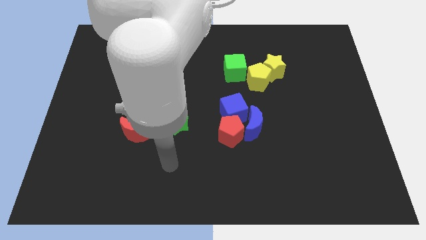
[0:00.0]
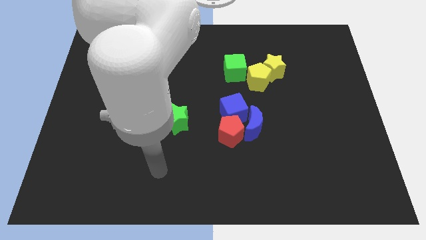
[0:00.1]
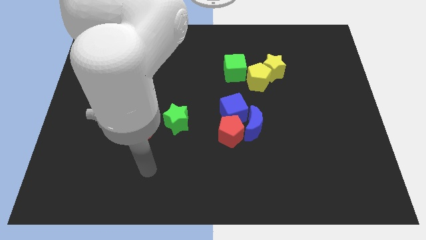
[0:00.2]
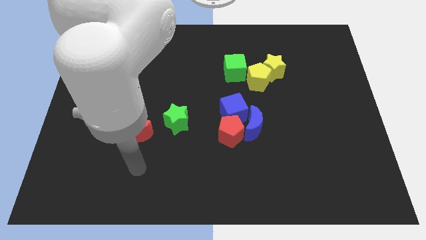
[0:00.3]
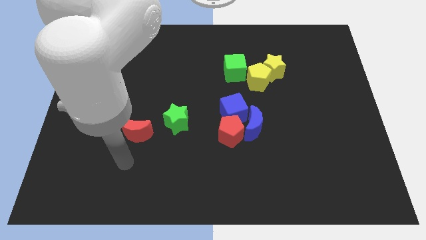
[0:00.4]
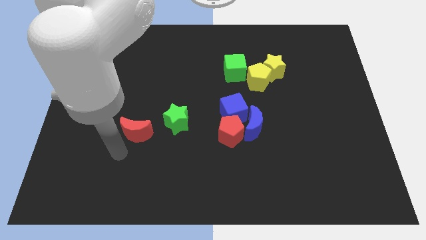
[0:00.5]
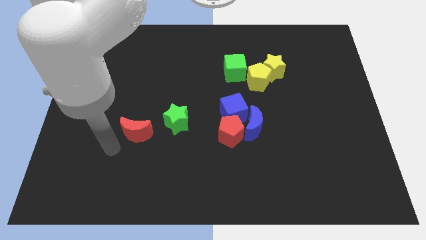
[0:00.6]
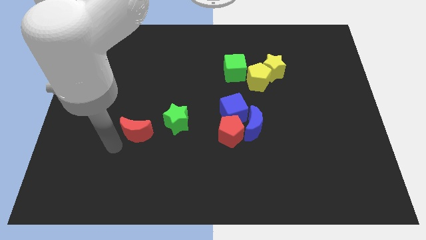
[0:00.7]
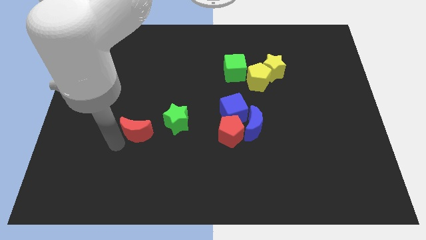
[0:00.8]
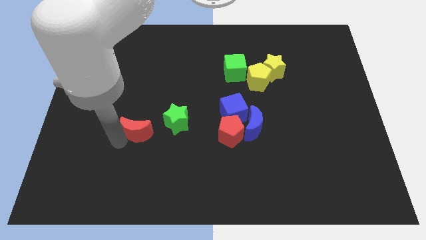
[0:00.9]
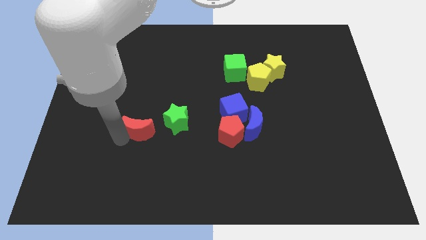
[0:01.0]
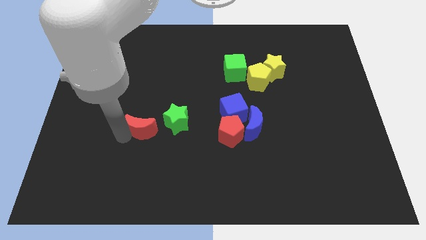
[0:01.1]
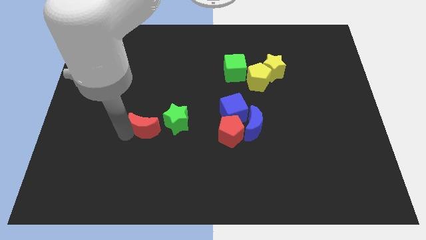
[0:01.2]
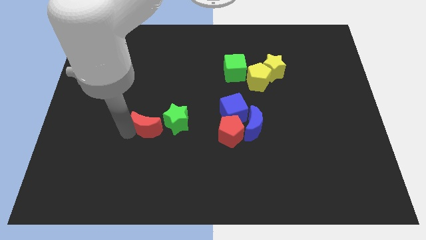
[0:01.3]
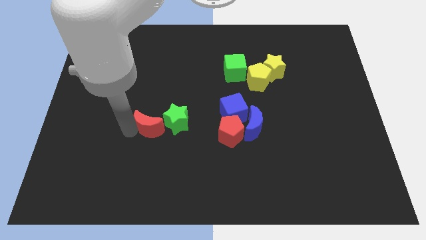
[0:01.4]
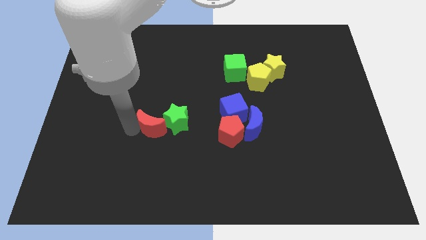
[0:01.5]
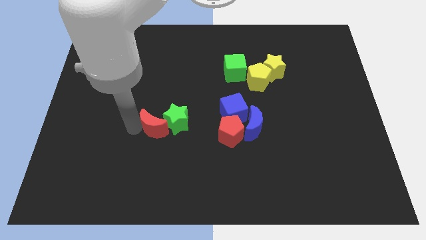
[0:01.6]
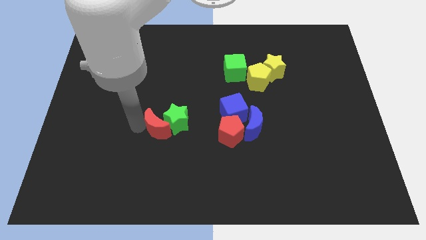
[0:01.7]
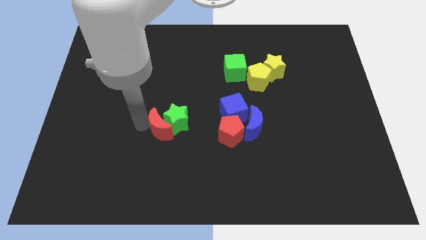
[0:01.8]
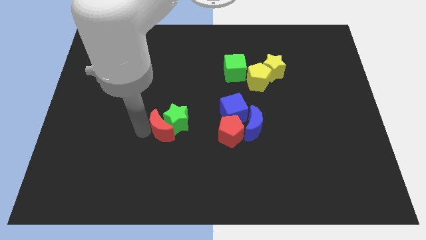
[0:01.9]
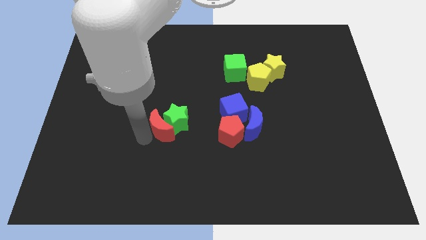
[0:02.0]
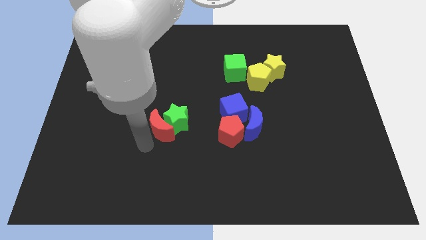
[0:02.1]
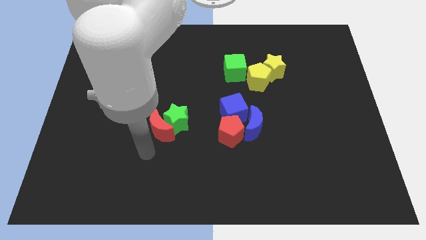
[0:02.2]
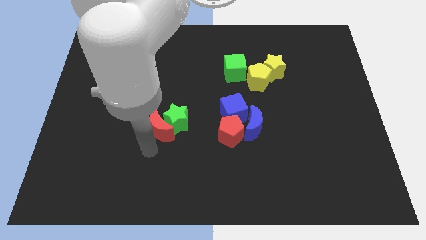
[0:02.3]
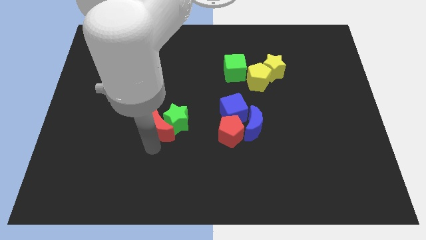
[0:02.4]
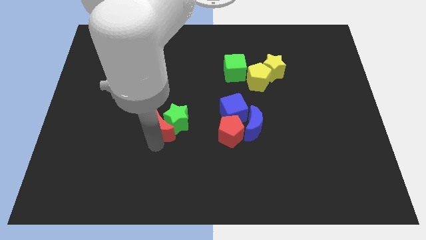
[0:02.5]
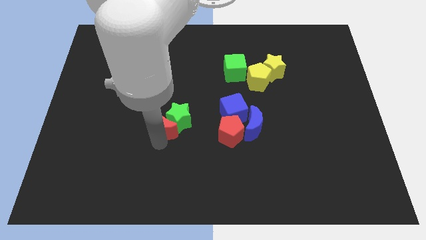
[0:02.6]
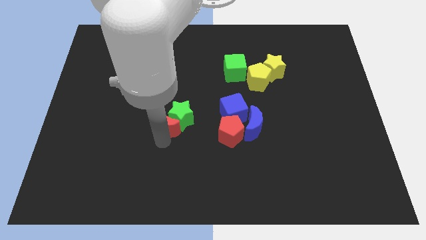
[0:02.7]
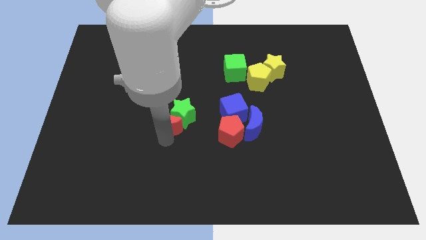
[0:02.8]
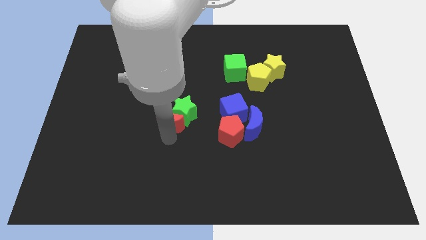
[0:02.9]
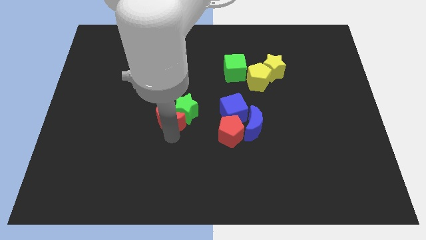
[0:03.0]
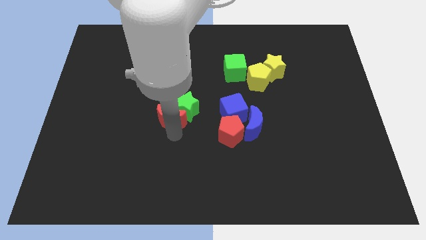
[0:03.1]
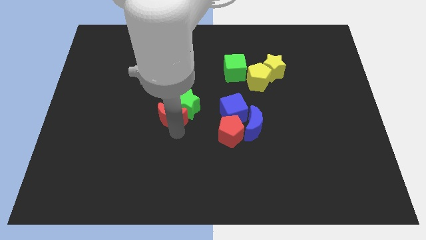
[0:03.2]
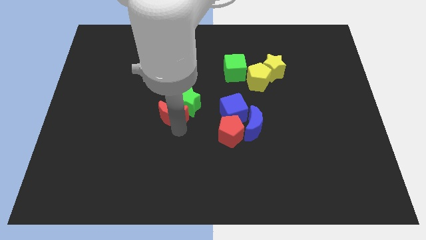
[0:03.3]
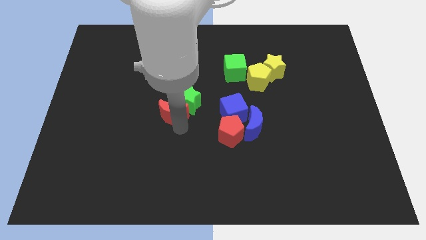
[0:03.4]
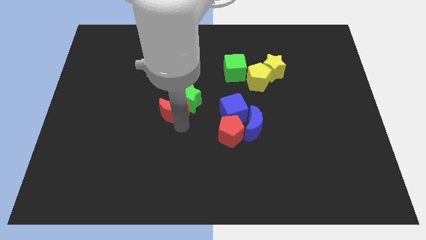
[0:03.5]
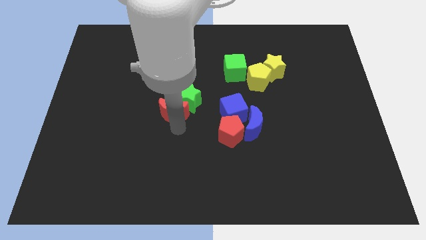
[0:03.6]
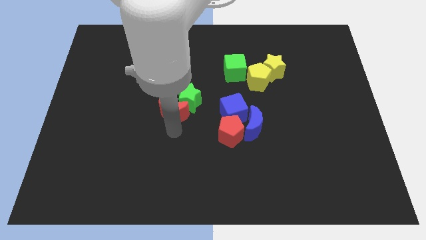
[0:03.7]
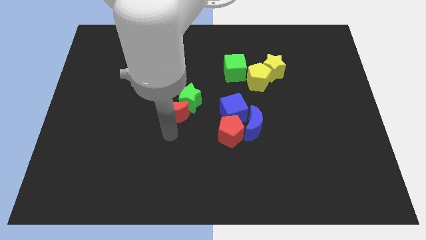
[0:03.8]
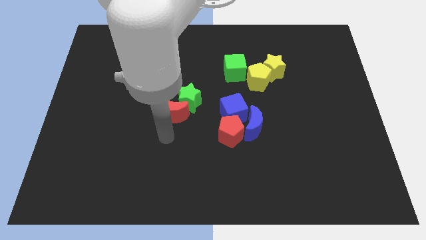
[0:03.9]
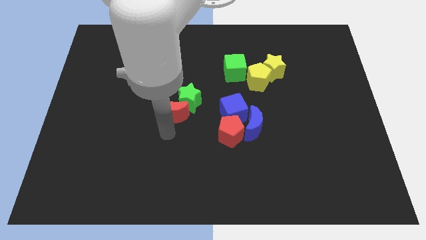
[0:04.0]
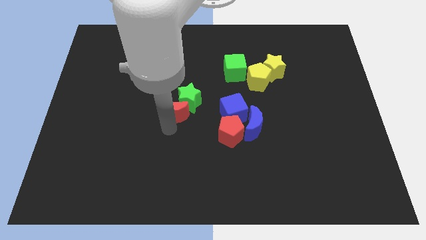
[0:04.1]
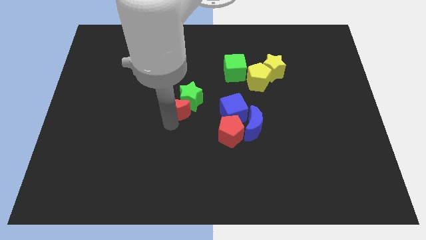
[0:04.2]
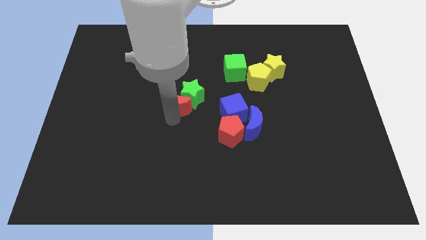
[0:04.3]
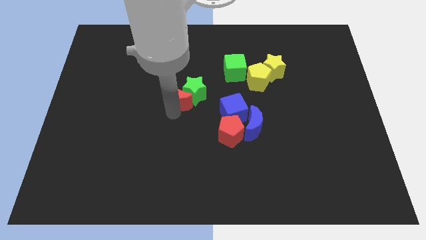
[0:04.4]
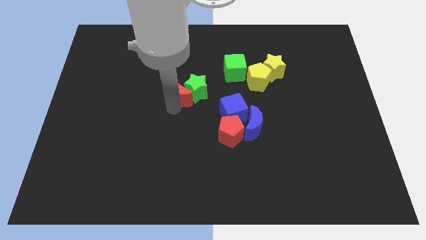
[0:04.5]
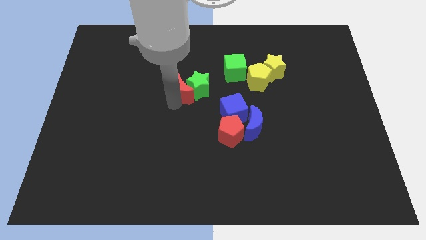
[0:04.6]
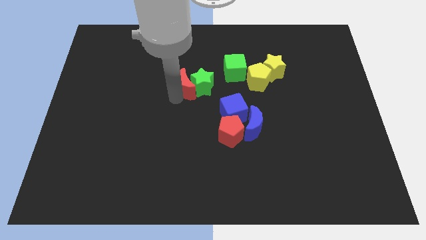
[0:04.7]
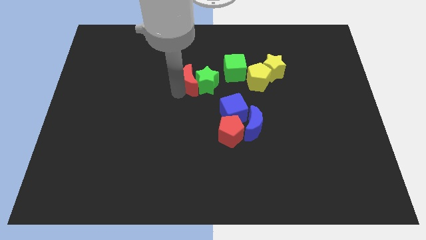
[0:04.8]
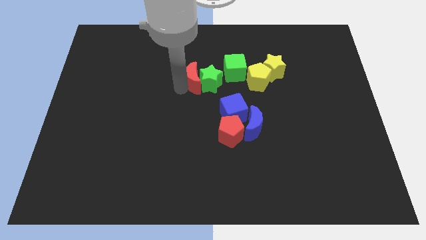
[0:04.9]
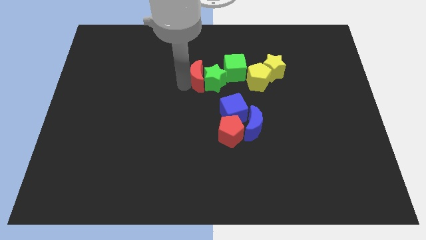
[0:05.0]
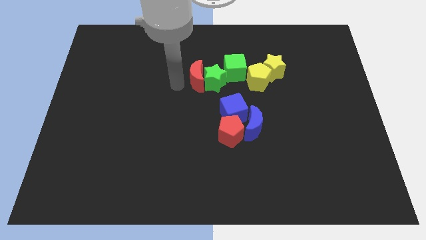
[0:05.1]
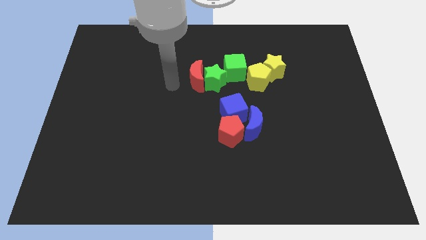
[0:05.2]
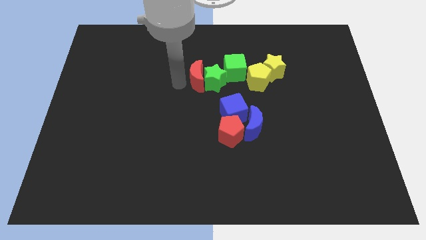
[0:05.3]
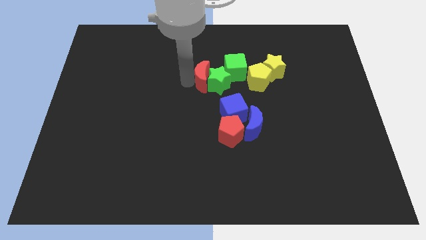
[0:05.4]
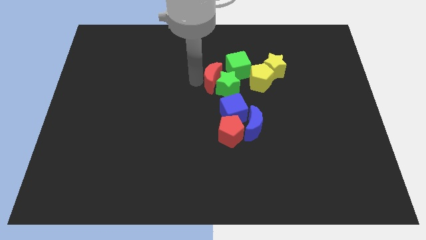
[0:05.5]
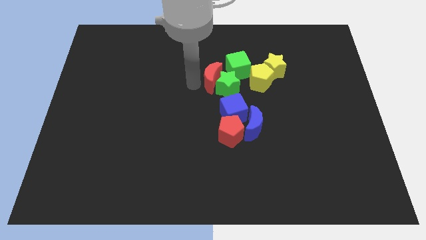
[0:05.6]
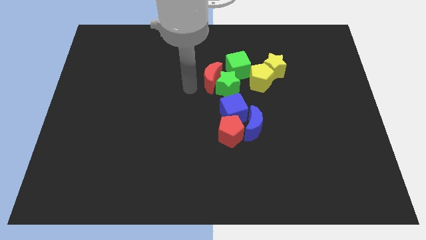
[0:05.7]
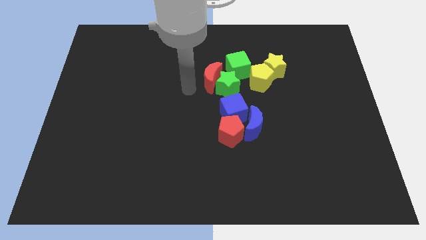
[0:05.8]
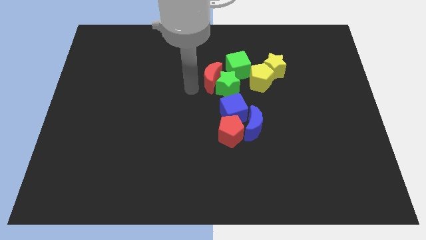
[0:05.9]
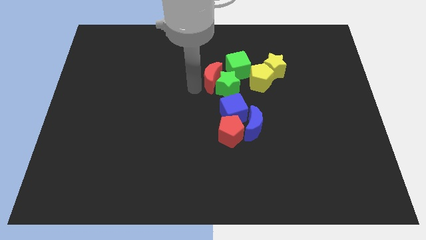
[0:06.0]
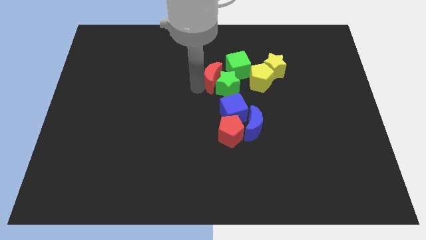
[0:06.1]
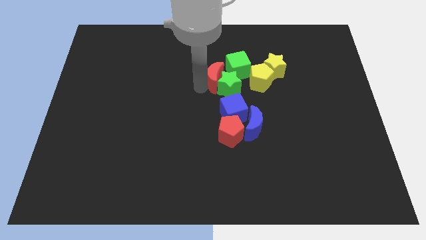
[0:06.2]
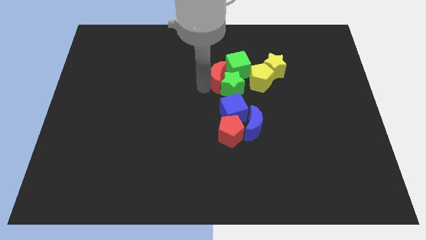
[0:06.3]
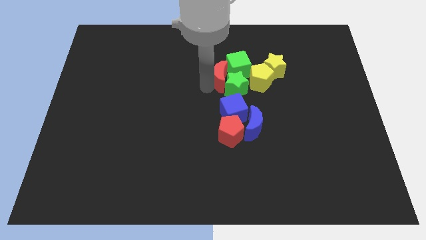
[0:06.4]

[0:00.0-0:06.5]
move the red moon to the green cube
